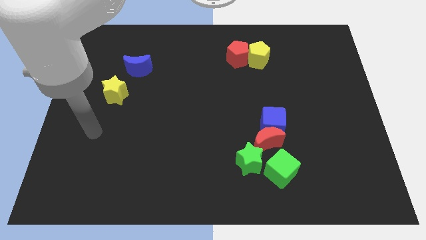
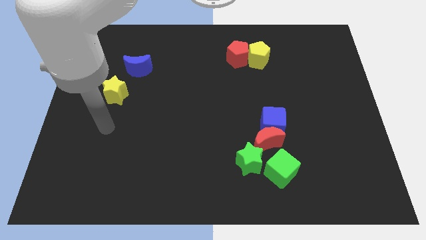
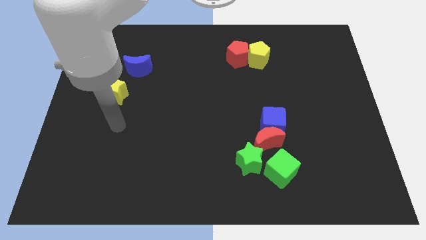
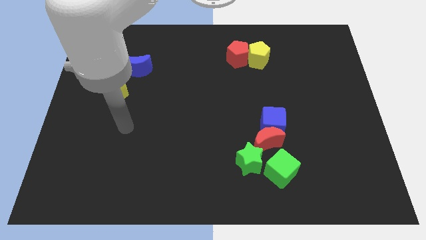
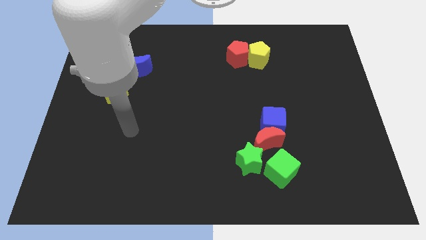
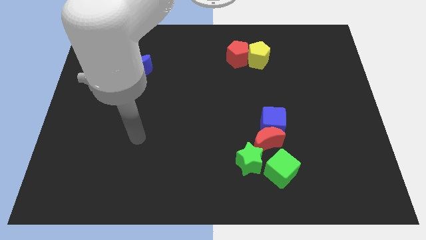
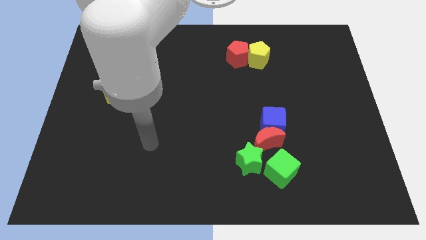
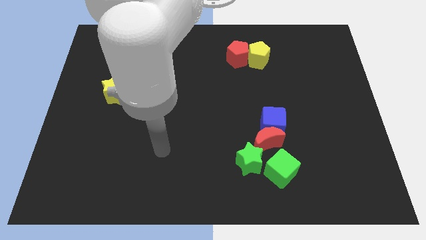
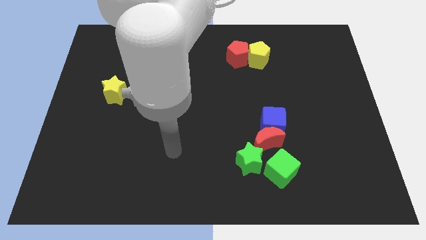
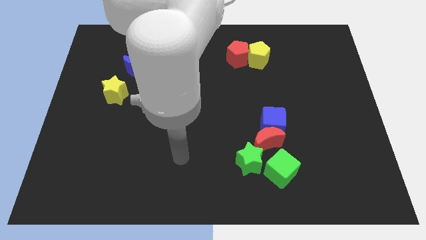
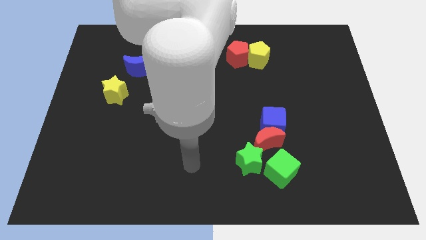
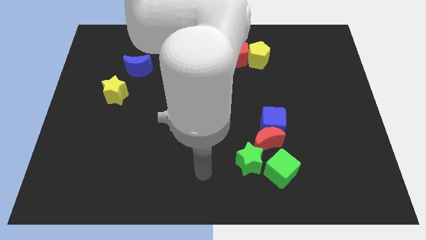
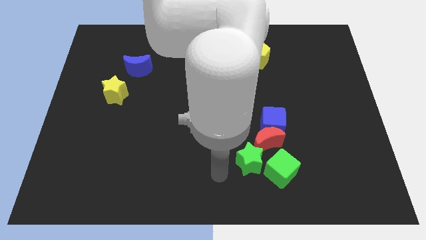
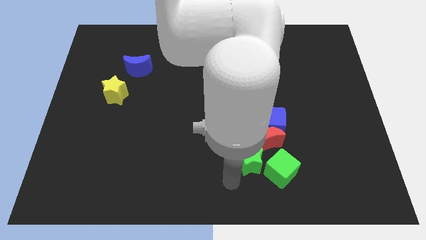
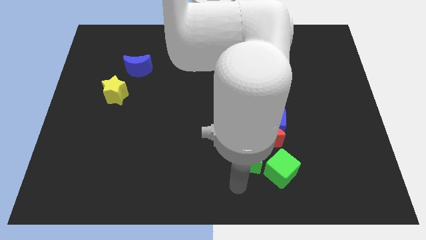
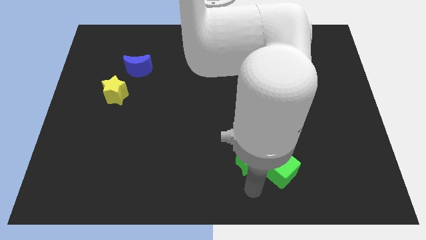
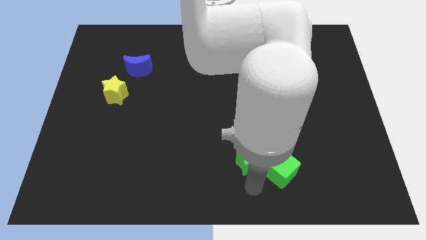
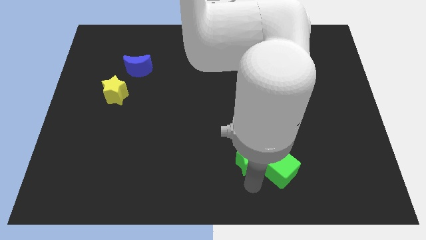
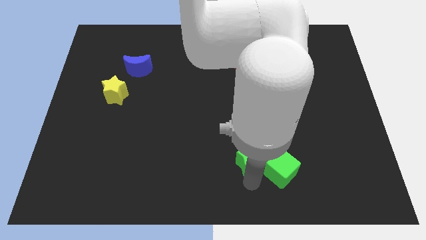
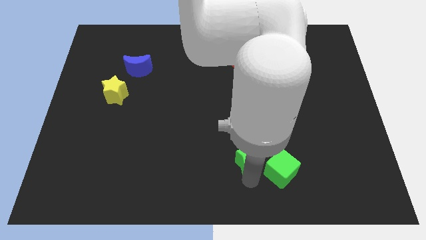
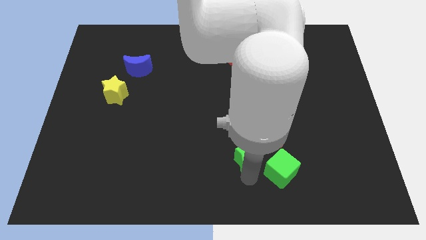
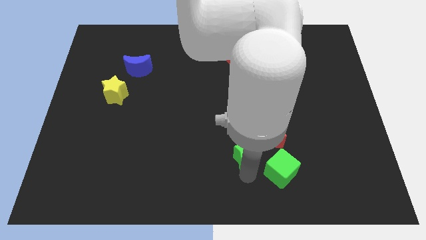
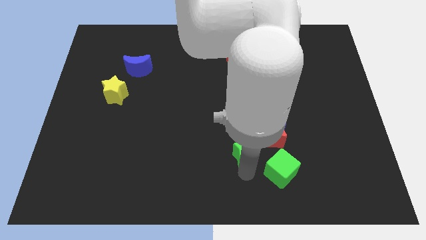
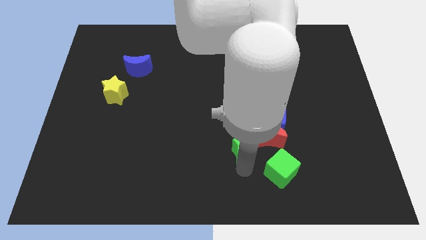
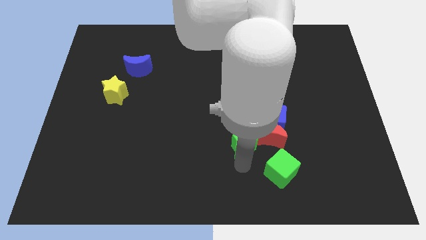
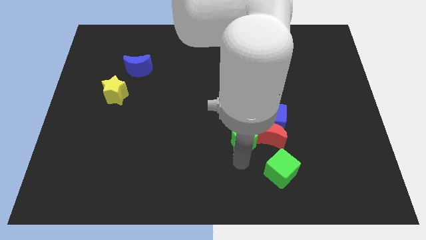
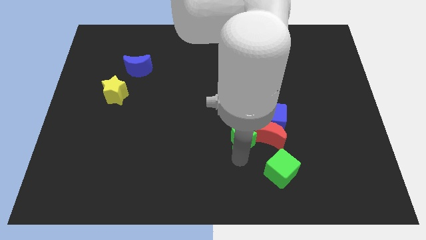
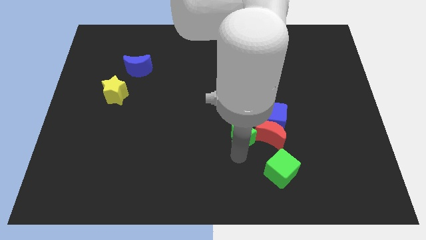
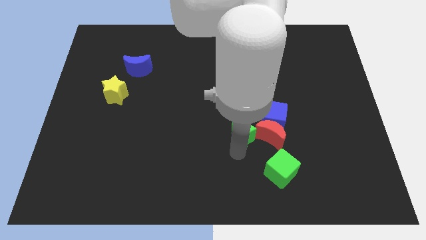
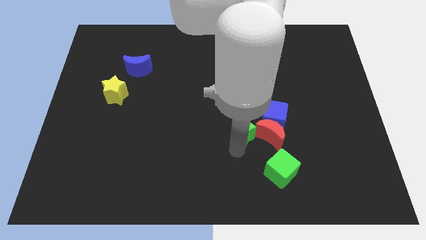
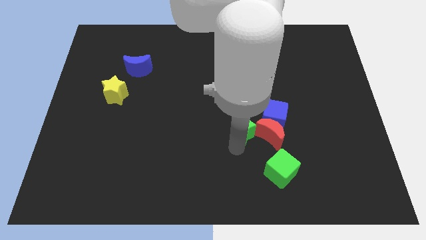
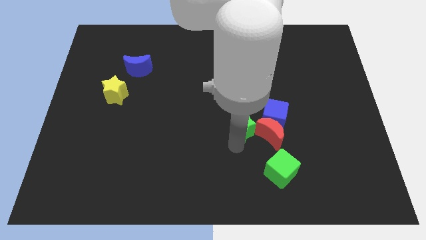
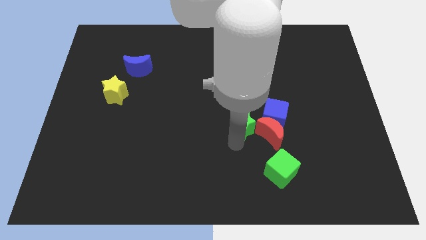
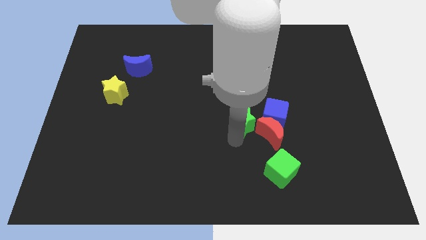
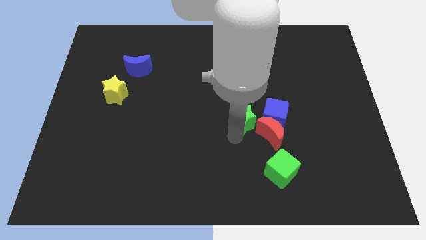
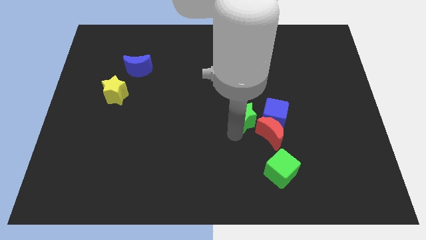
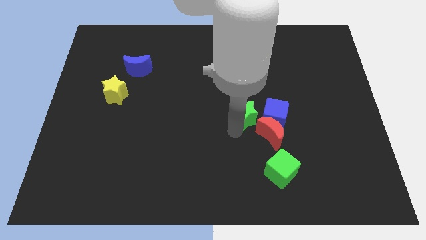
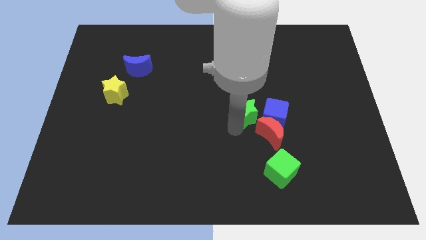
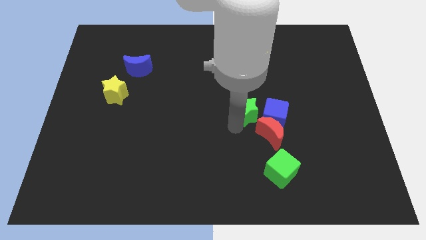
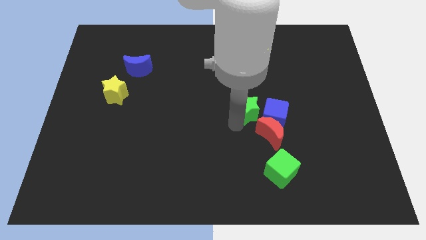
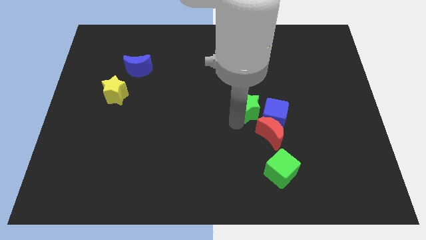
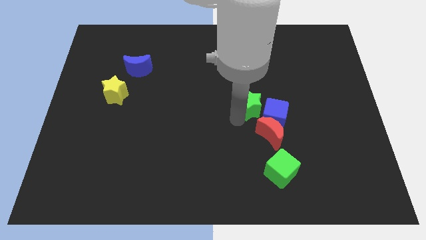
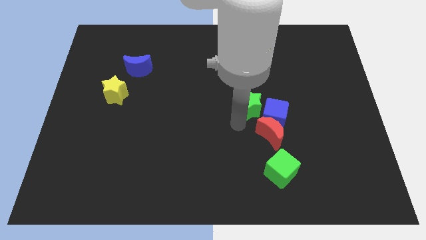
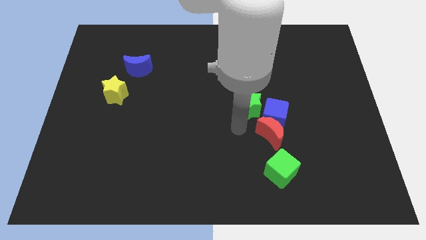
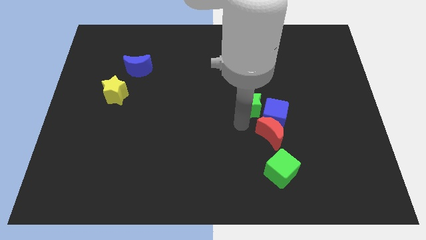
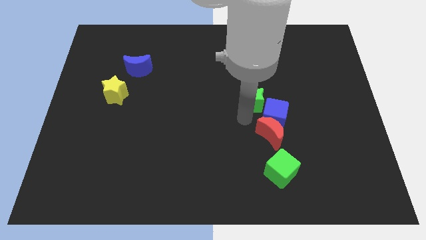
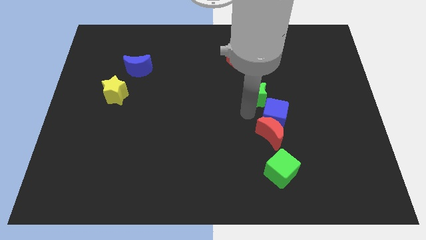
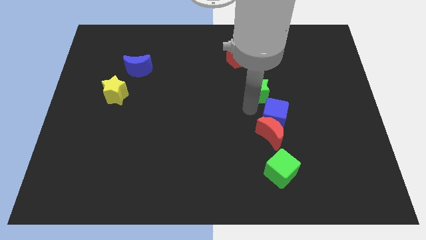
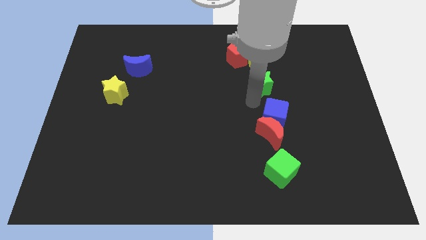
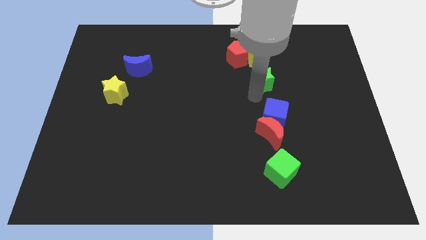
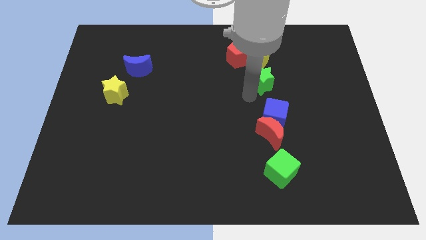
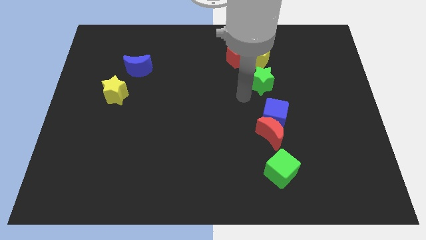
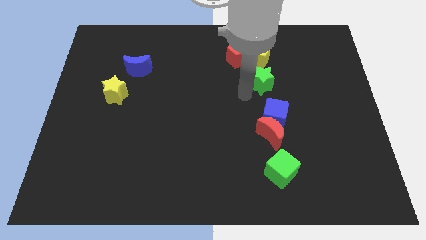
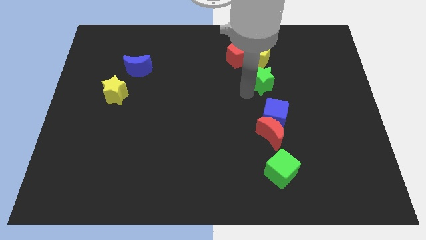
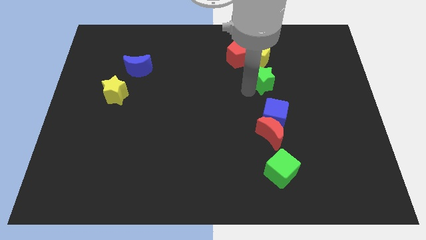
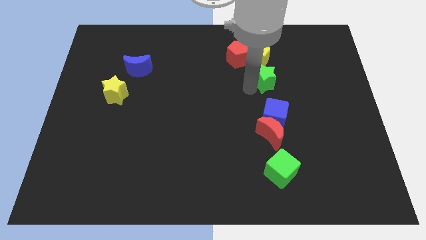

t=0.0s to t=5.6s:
push the green star diagonally down and to the right of the yellow pentagon

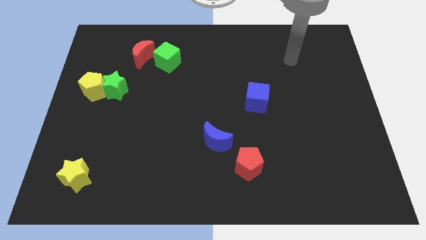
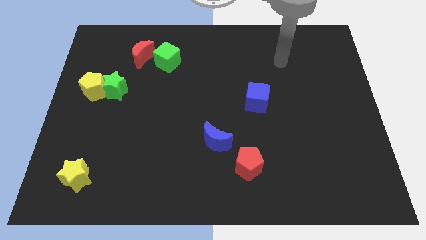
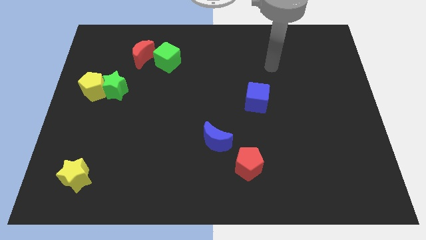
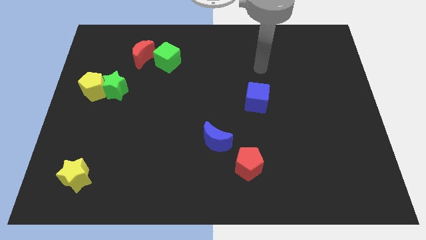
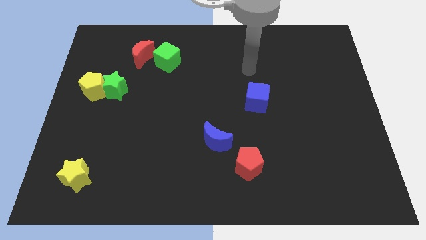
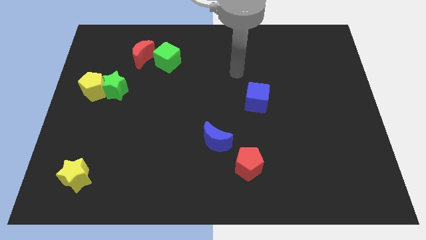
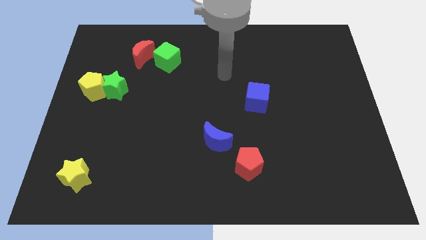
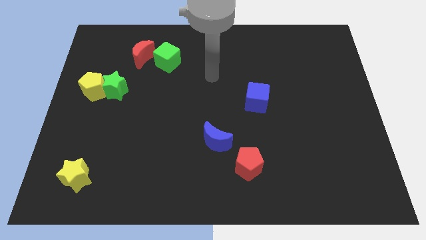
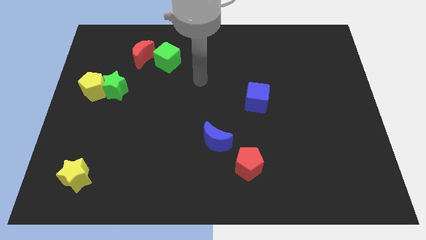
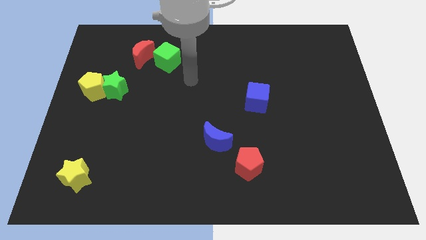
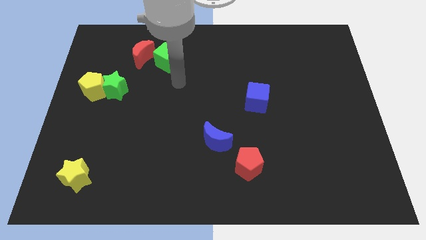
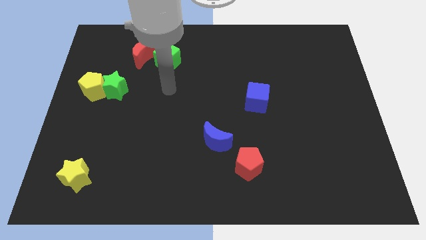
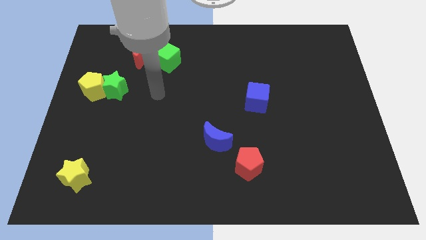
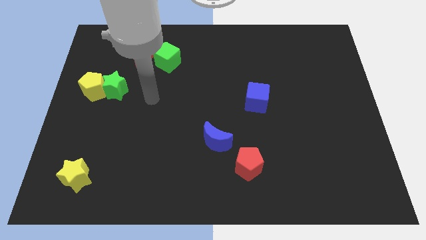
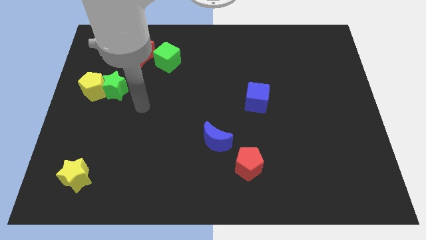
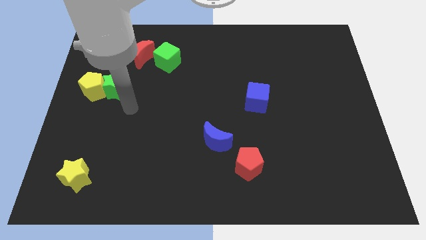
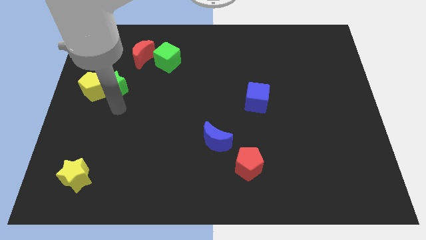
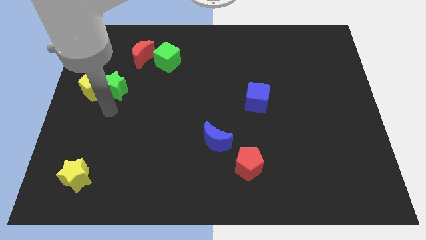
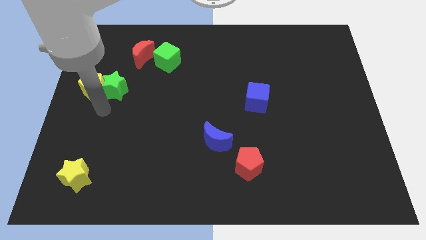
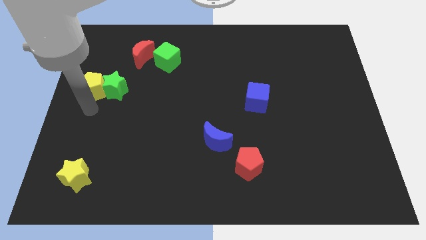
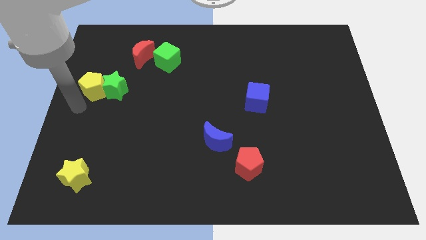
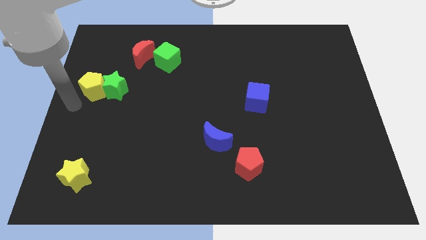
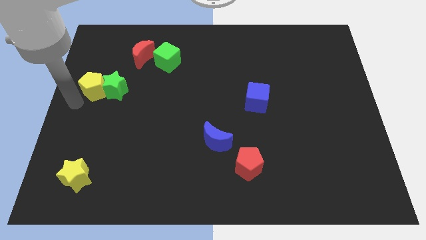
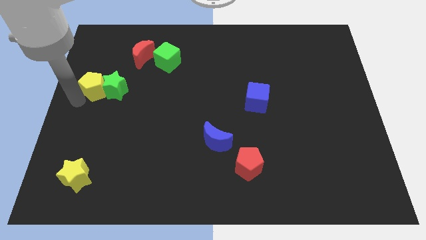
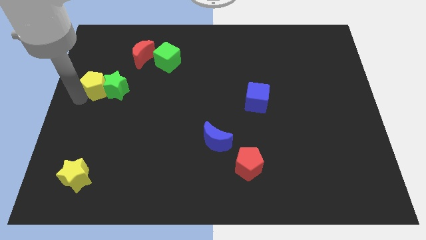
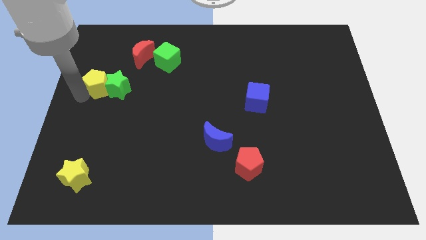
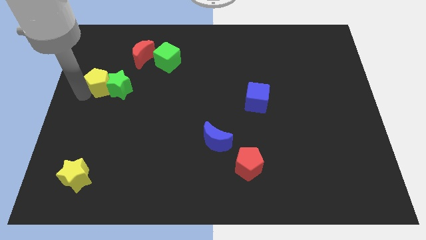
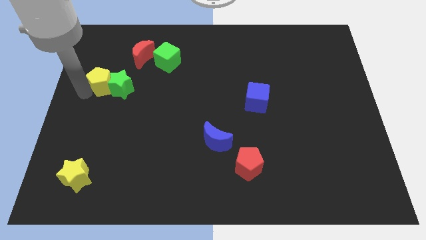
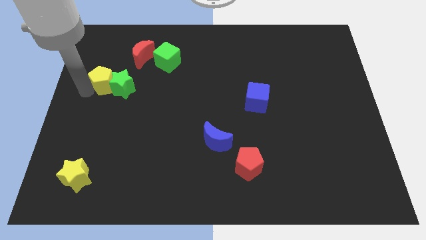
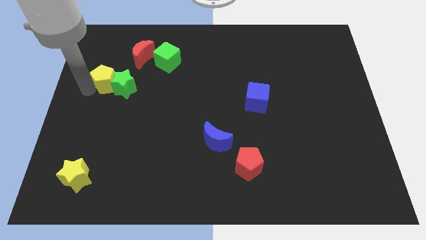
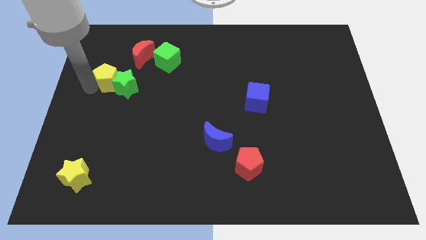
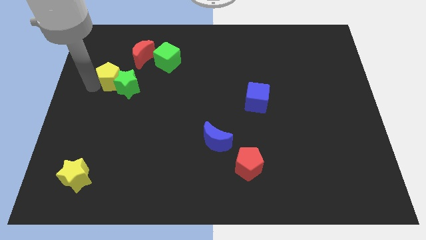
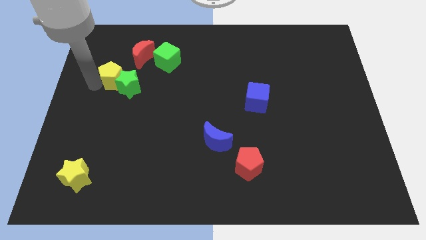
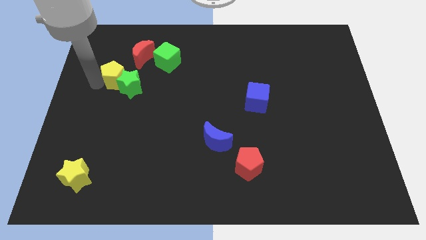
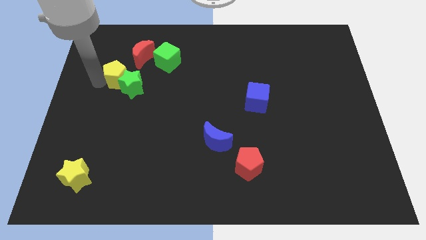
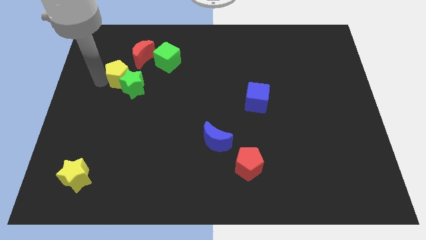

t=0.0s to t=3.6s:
move the yellow pentagon below the red moon
